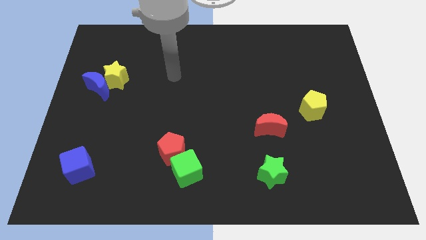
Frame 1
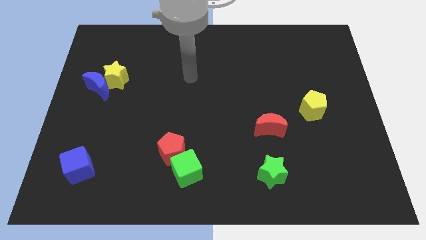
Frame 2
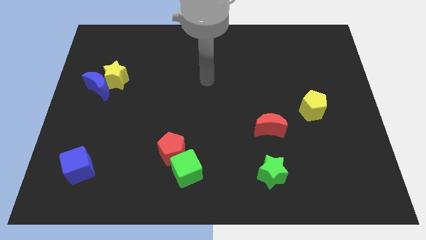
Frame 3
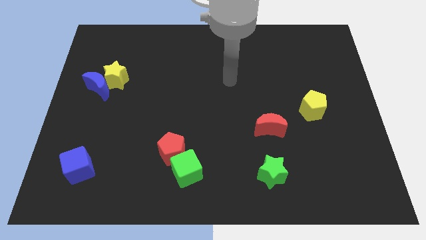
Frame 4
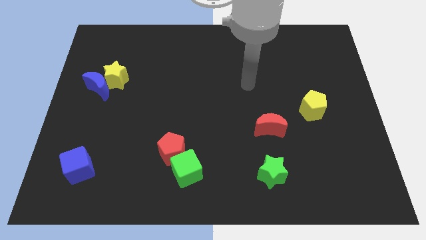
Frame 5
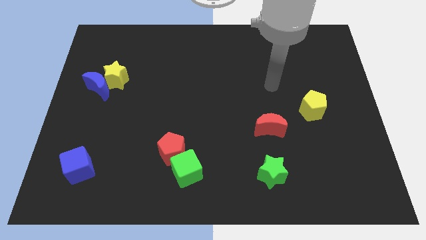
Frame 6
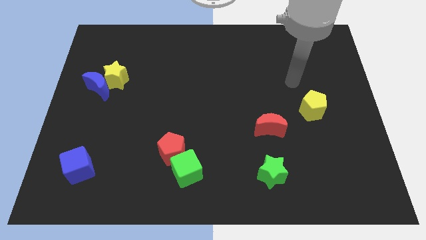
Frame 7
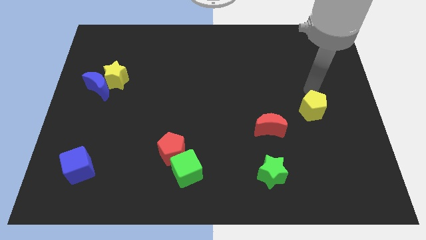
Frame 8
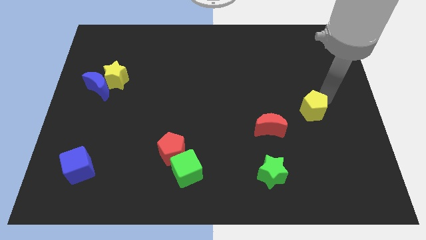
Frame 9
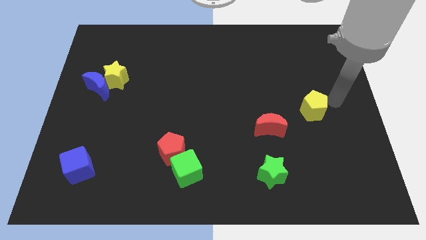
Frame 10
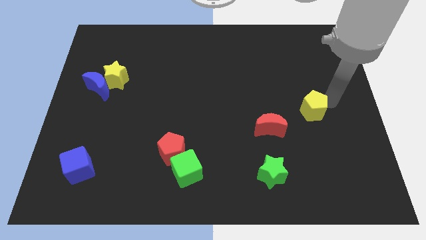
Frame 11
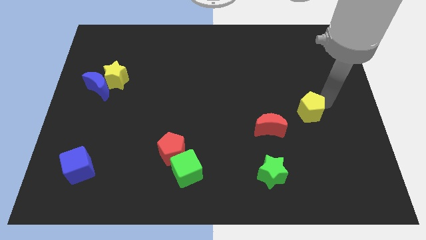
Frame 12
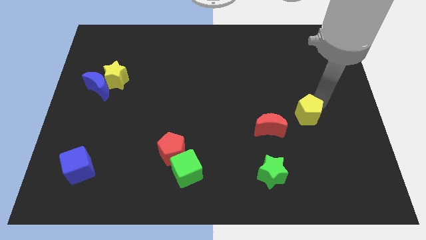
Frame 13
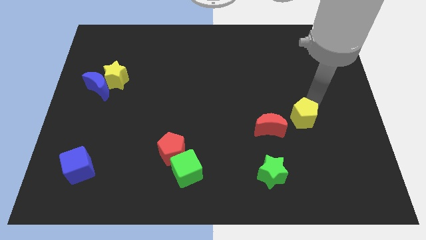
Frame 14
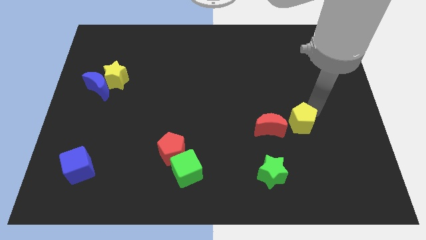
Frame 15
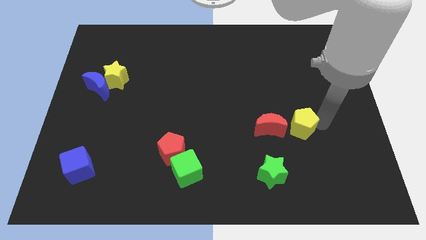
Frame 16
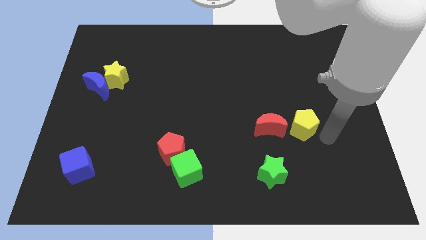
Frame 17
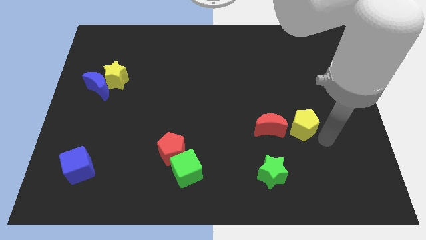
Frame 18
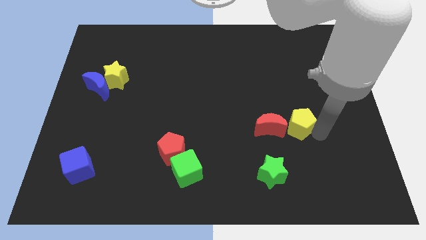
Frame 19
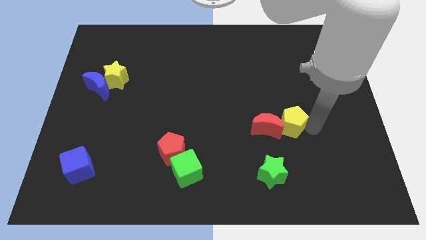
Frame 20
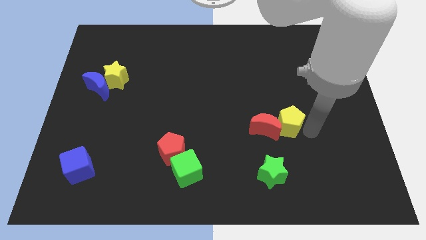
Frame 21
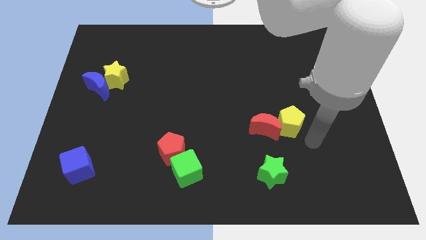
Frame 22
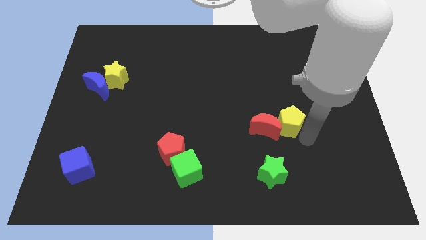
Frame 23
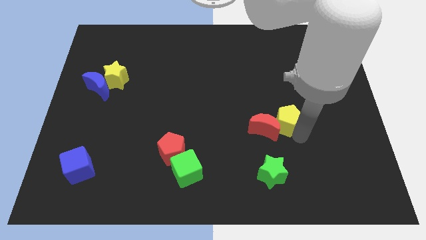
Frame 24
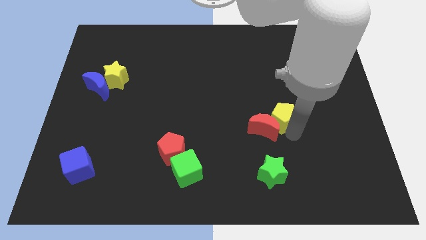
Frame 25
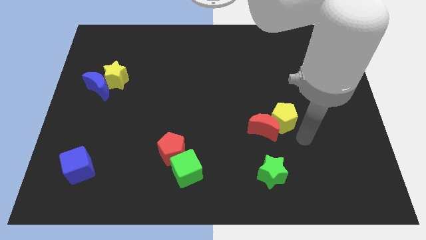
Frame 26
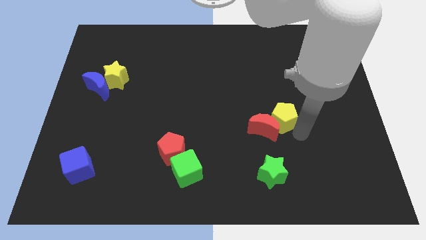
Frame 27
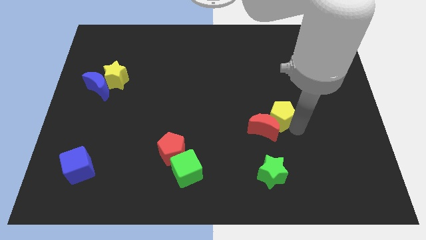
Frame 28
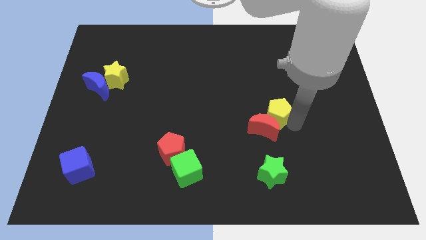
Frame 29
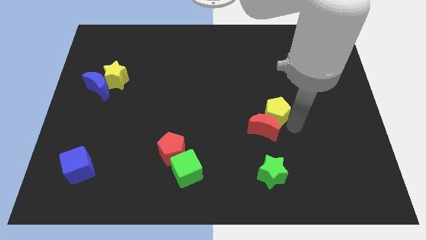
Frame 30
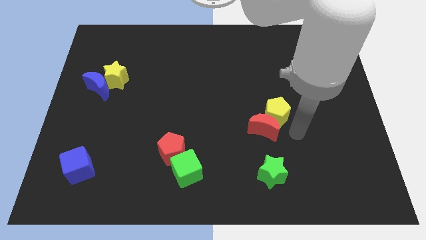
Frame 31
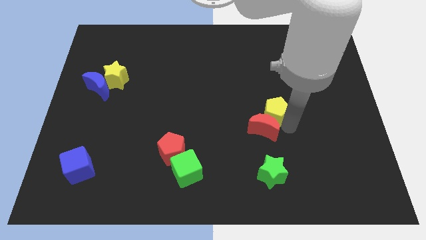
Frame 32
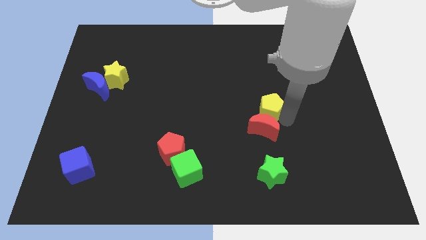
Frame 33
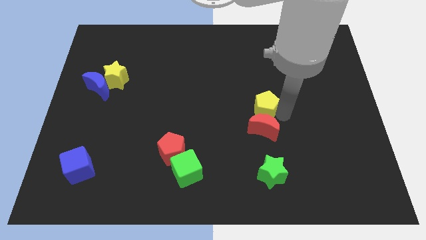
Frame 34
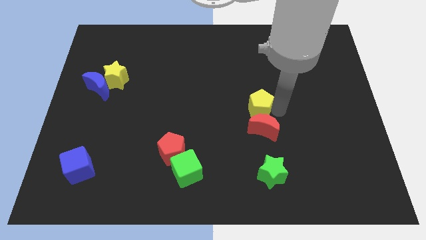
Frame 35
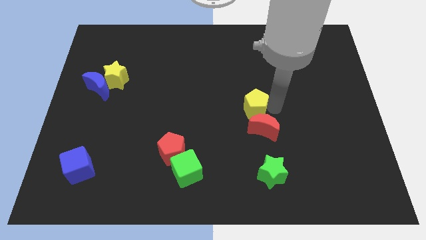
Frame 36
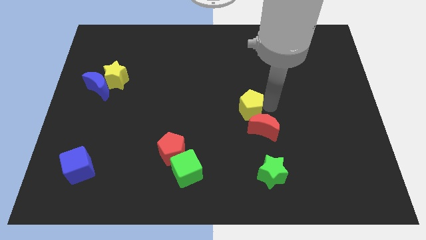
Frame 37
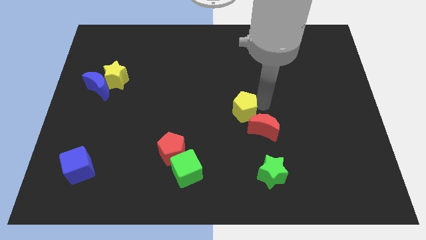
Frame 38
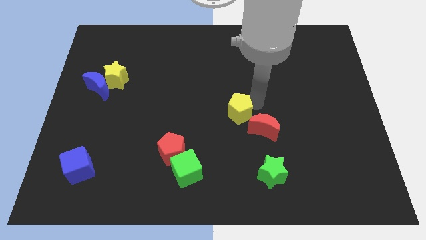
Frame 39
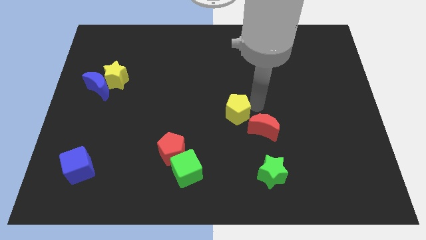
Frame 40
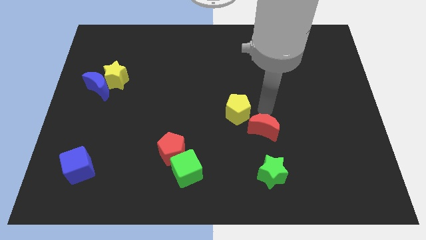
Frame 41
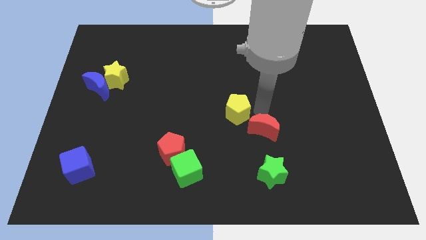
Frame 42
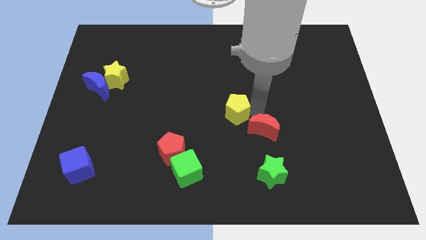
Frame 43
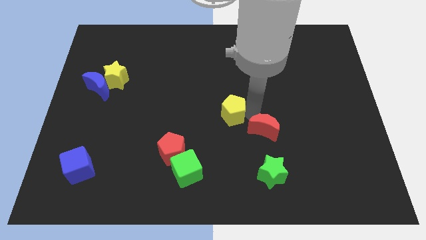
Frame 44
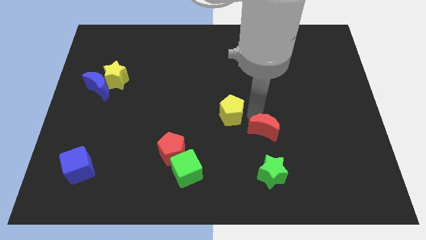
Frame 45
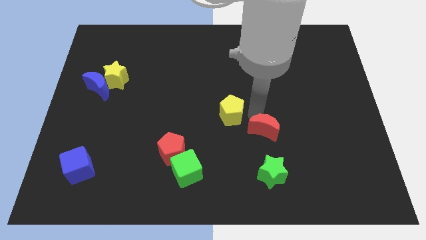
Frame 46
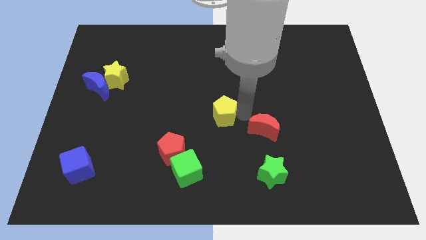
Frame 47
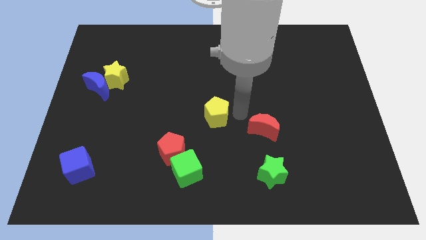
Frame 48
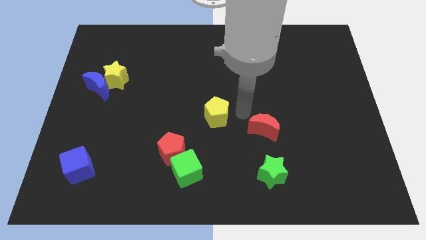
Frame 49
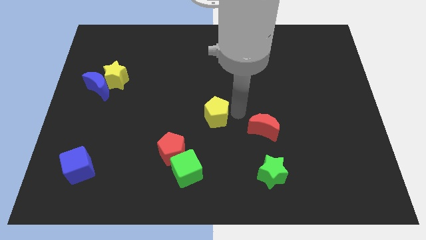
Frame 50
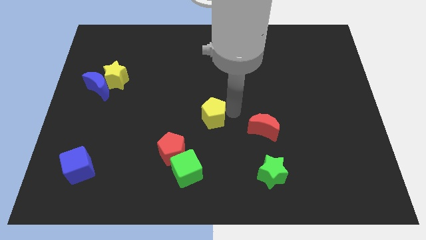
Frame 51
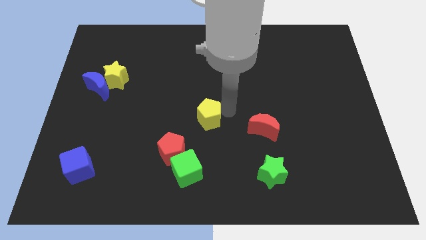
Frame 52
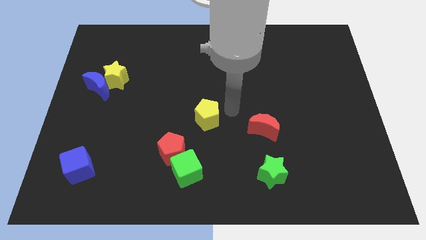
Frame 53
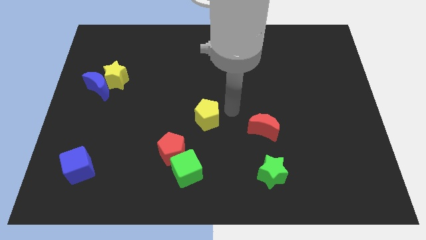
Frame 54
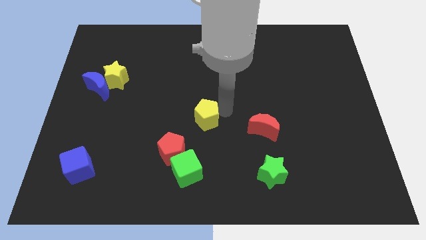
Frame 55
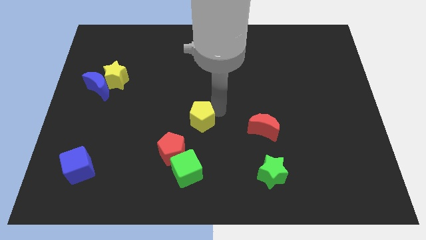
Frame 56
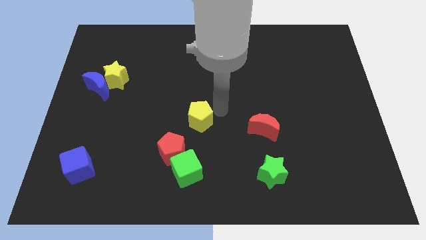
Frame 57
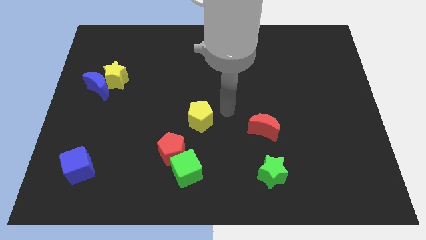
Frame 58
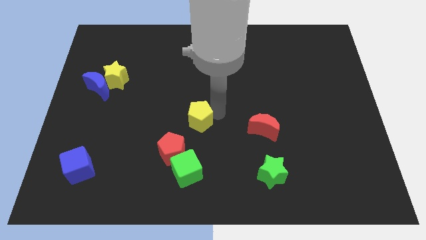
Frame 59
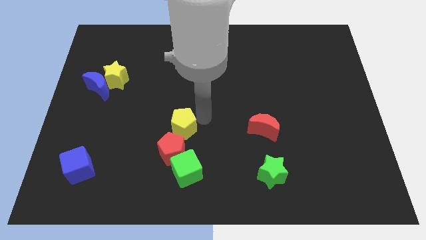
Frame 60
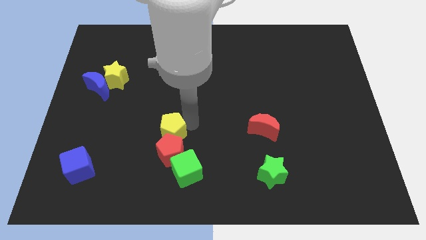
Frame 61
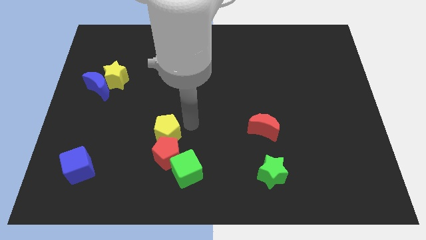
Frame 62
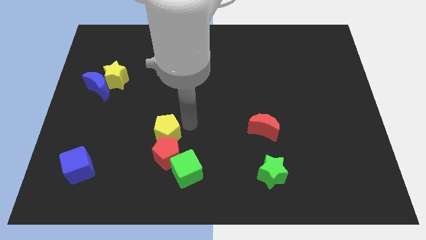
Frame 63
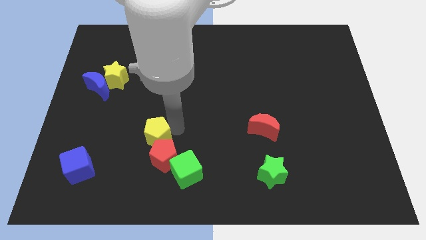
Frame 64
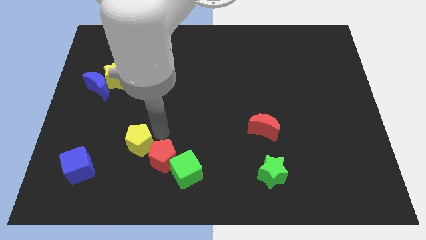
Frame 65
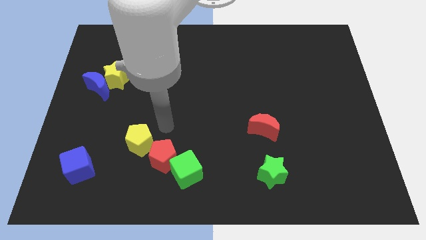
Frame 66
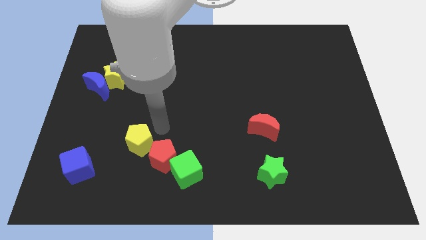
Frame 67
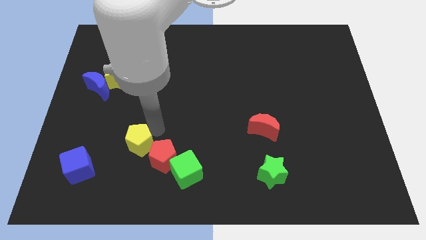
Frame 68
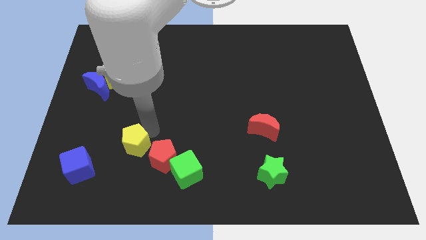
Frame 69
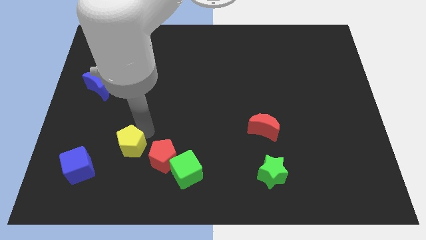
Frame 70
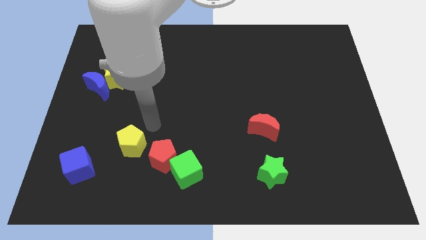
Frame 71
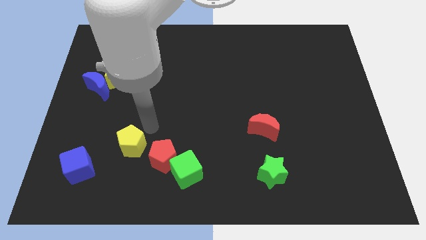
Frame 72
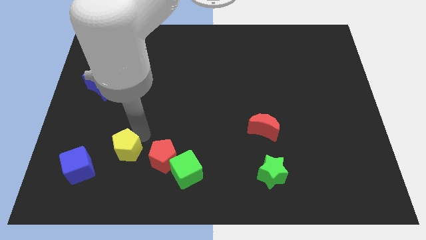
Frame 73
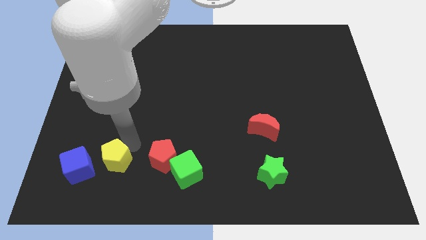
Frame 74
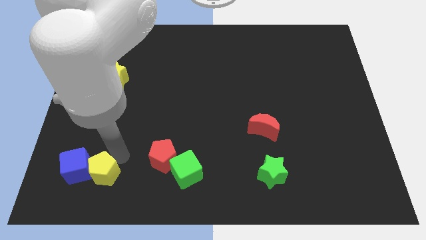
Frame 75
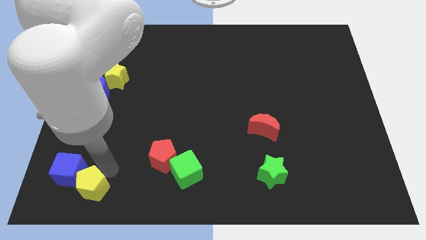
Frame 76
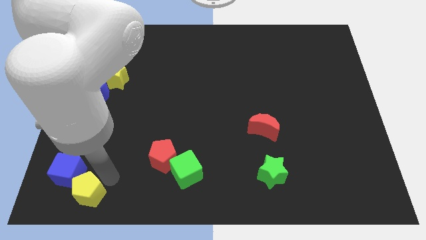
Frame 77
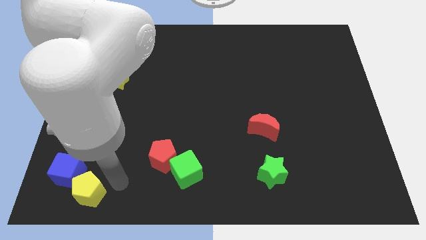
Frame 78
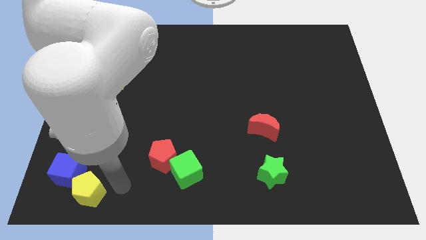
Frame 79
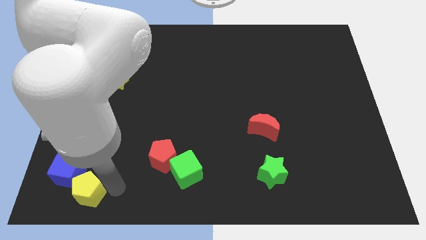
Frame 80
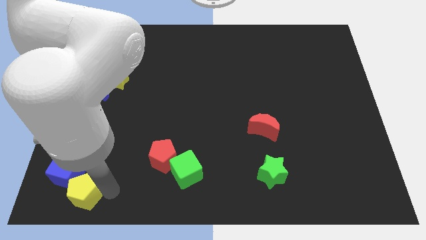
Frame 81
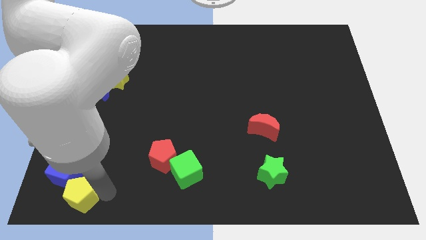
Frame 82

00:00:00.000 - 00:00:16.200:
put the yellow pentagon to the bottom left corner
